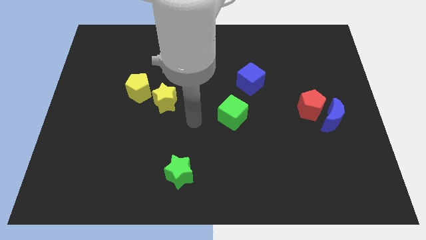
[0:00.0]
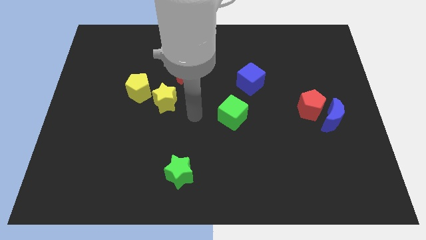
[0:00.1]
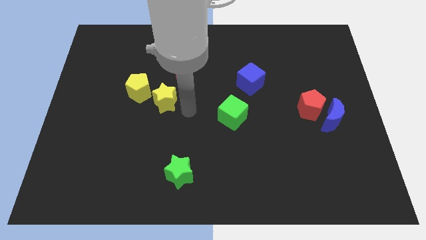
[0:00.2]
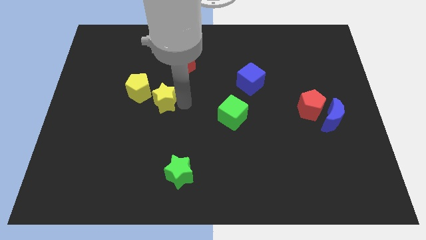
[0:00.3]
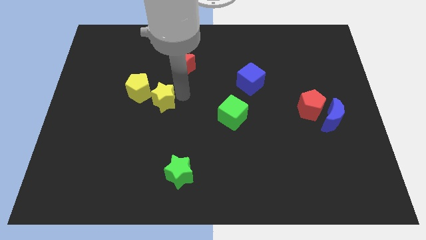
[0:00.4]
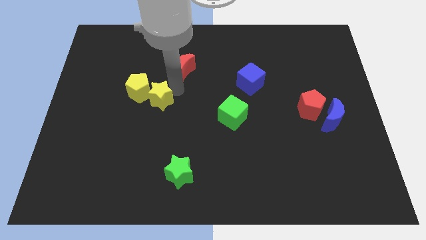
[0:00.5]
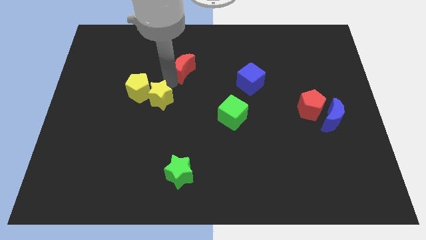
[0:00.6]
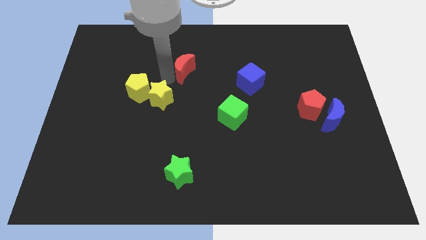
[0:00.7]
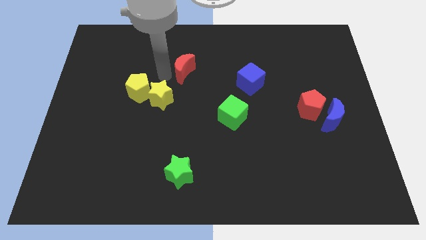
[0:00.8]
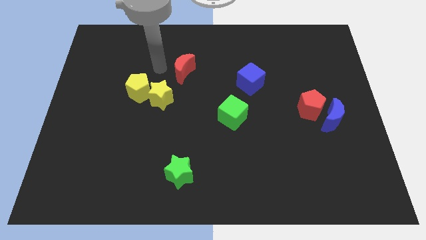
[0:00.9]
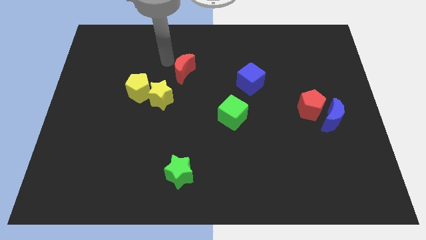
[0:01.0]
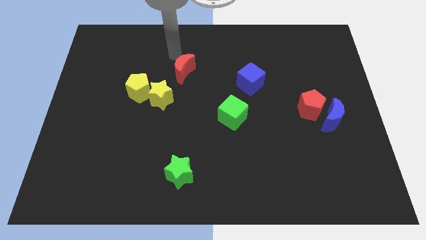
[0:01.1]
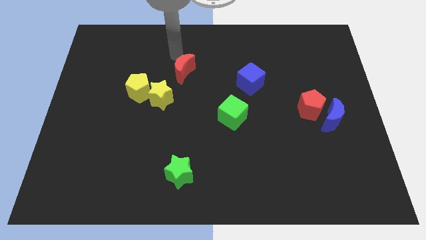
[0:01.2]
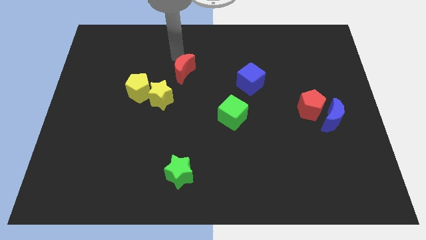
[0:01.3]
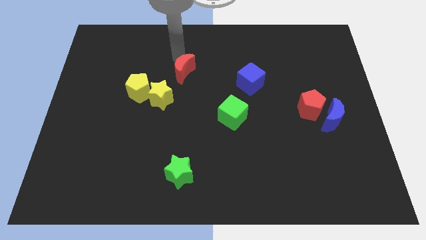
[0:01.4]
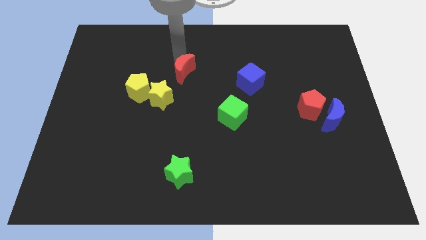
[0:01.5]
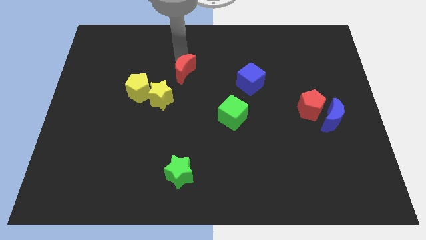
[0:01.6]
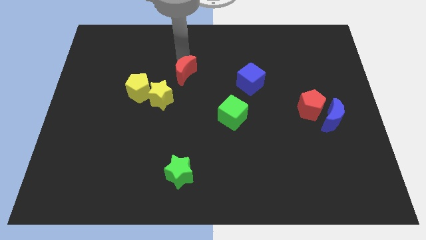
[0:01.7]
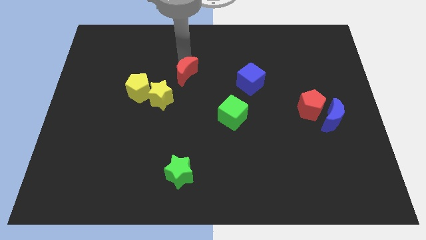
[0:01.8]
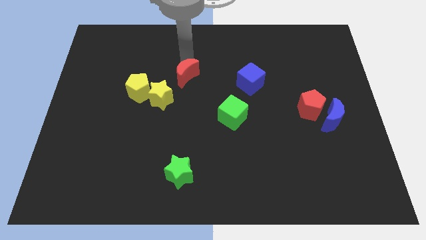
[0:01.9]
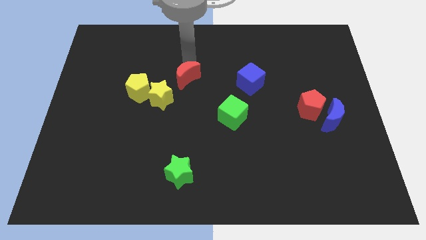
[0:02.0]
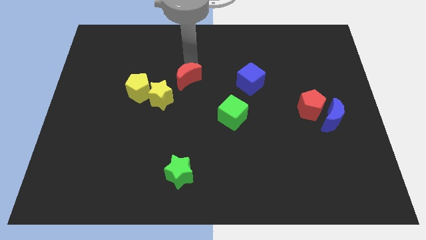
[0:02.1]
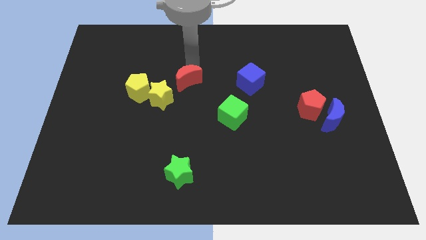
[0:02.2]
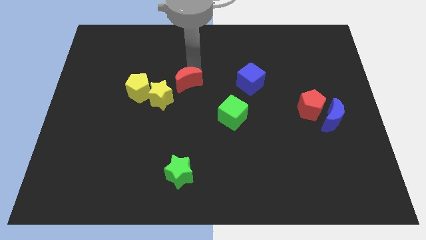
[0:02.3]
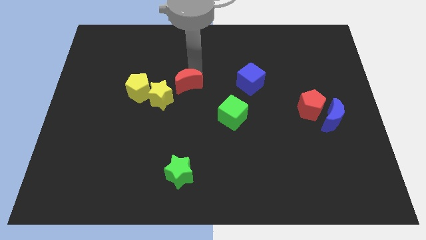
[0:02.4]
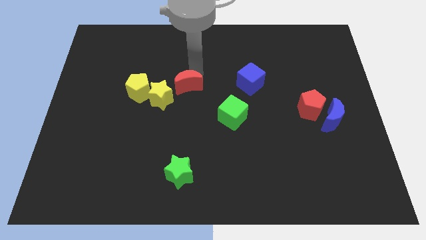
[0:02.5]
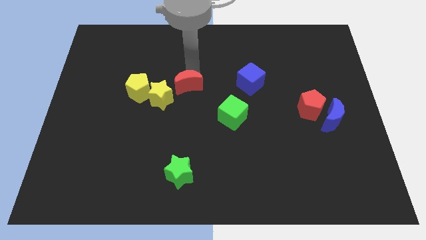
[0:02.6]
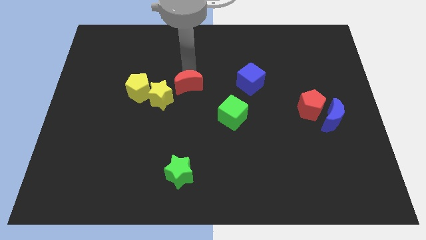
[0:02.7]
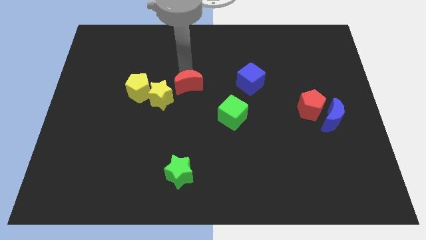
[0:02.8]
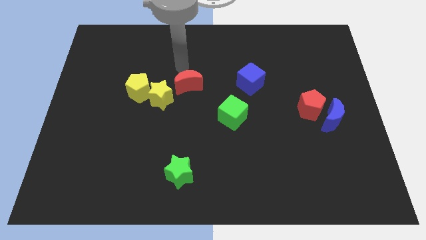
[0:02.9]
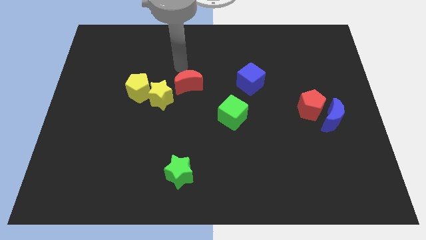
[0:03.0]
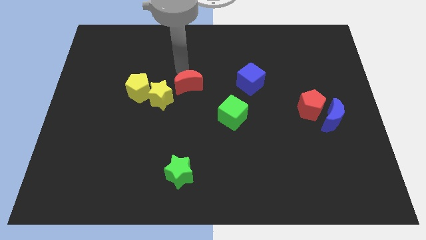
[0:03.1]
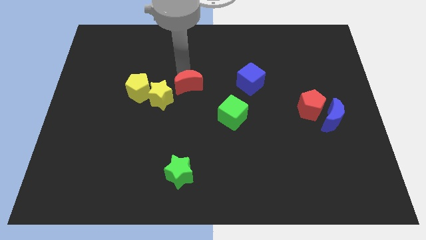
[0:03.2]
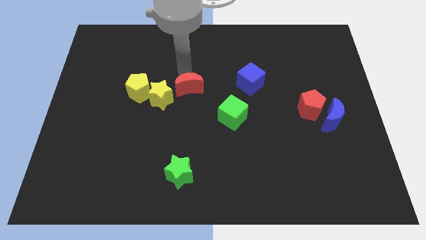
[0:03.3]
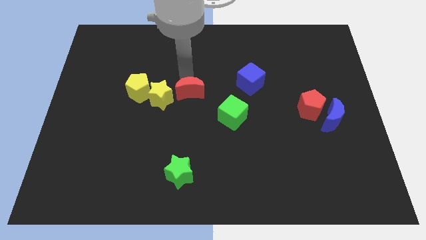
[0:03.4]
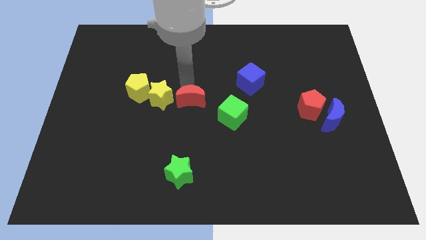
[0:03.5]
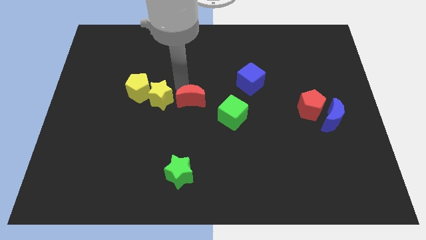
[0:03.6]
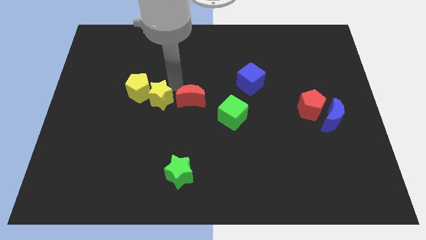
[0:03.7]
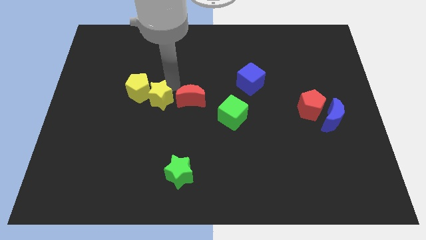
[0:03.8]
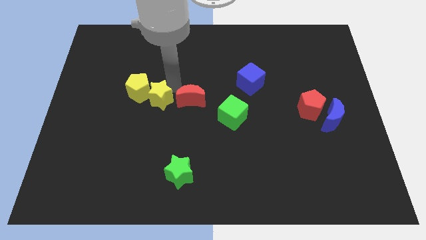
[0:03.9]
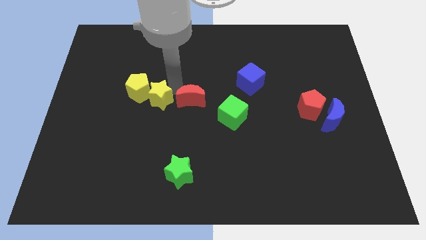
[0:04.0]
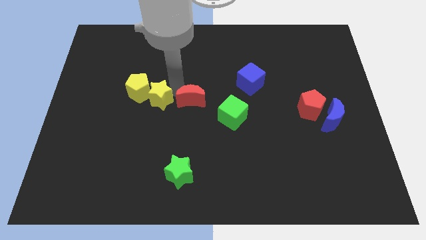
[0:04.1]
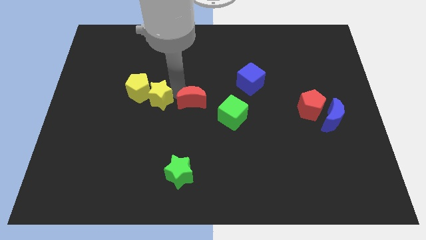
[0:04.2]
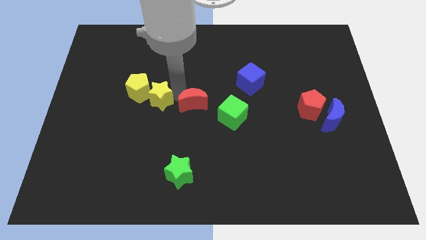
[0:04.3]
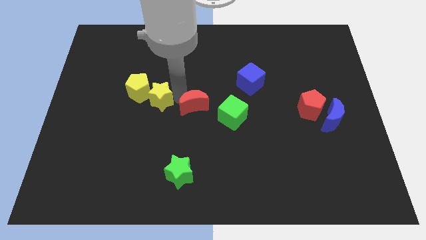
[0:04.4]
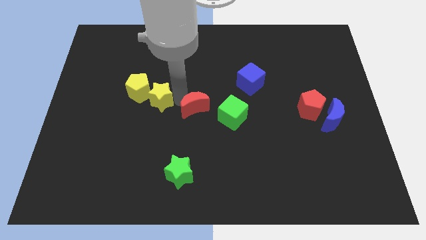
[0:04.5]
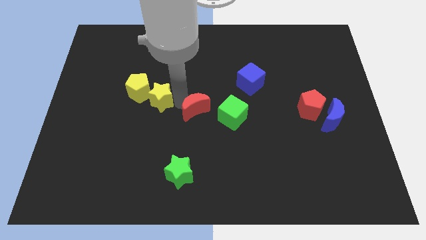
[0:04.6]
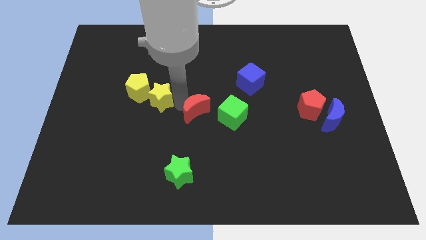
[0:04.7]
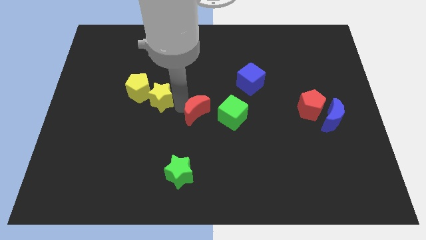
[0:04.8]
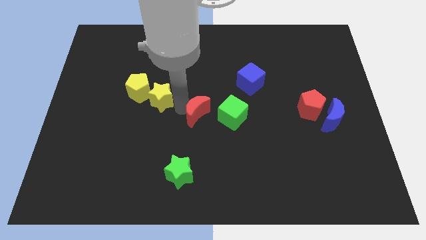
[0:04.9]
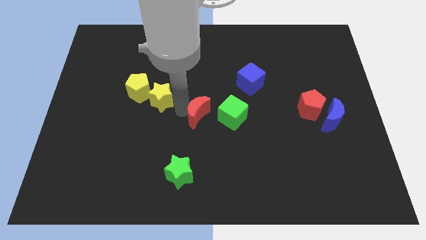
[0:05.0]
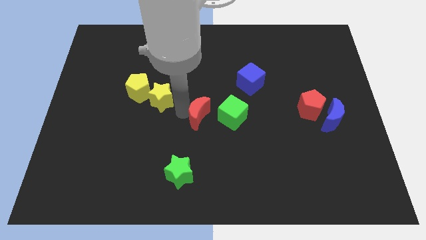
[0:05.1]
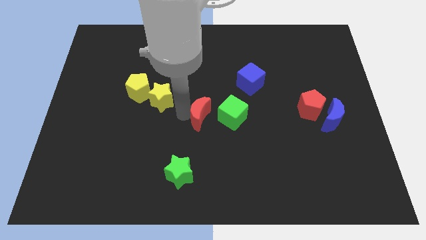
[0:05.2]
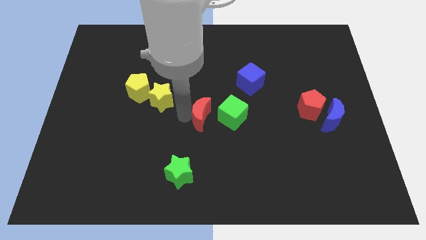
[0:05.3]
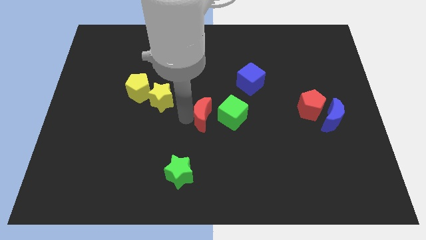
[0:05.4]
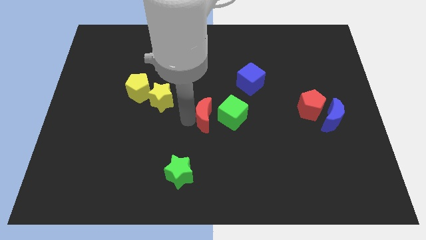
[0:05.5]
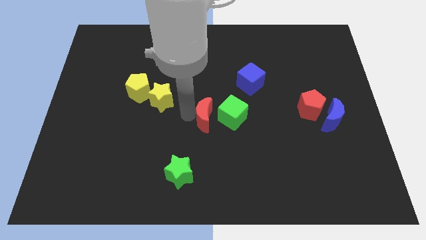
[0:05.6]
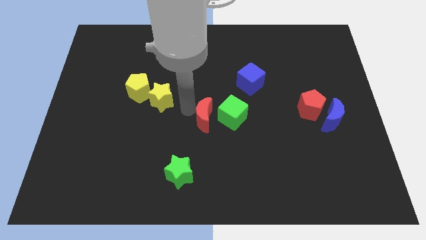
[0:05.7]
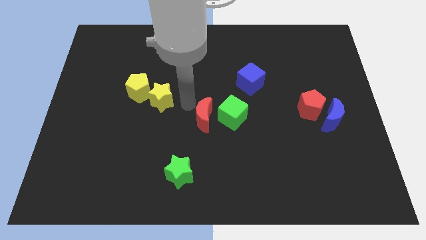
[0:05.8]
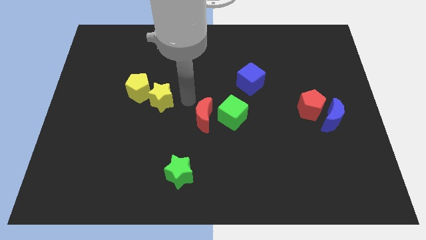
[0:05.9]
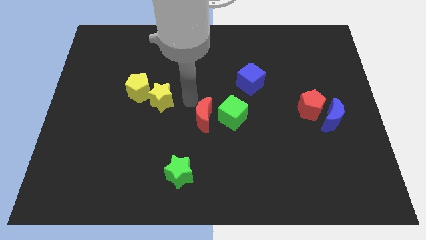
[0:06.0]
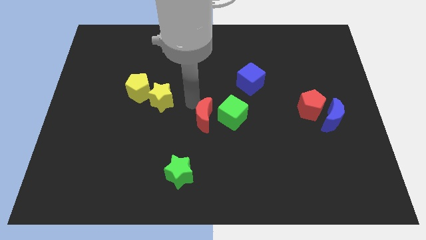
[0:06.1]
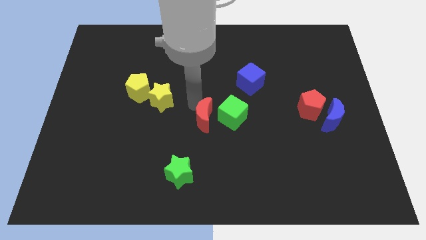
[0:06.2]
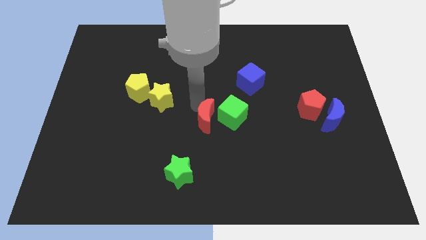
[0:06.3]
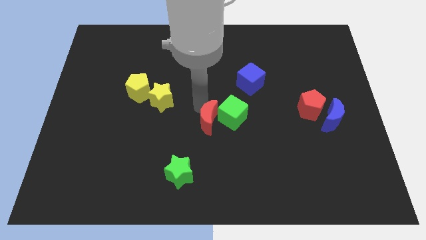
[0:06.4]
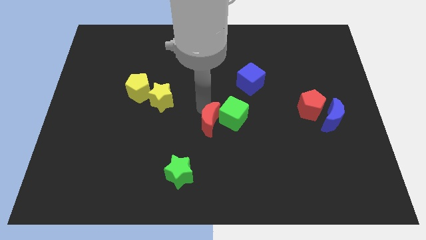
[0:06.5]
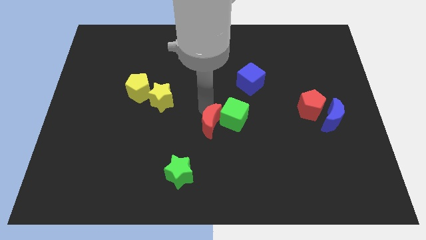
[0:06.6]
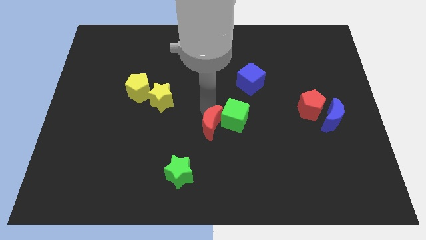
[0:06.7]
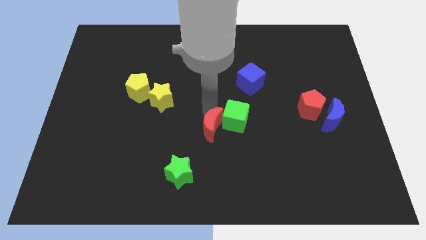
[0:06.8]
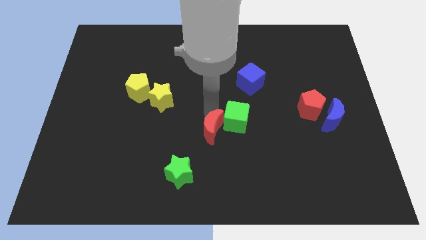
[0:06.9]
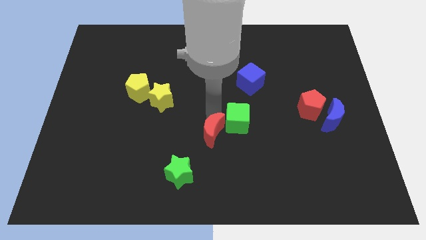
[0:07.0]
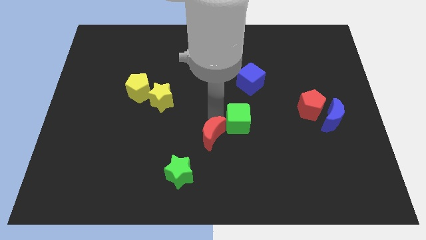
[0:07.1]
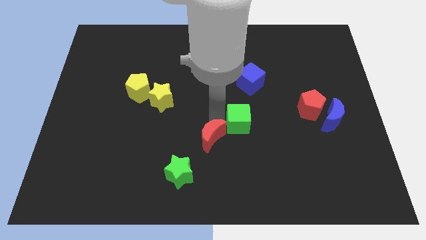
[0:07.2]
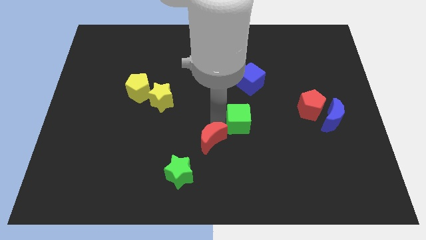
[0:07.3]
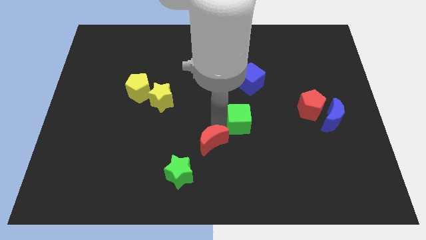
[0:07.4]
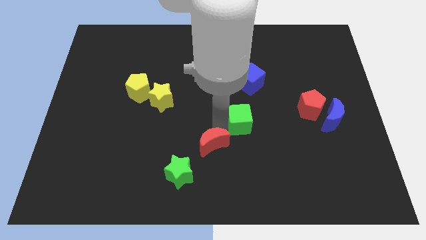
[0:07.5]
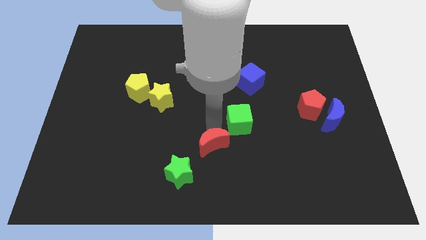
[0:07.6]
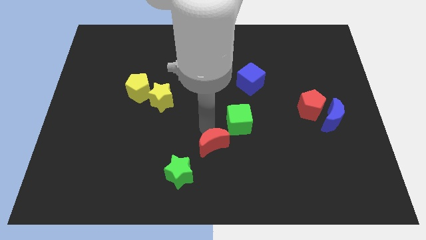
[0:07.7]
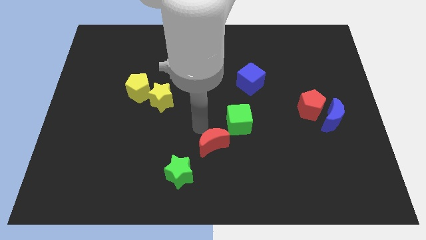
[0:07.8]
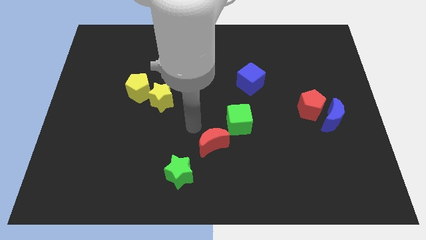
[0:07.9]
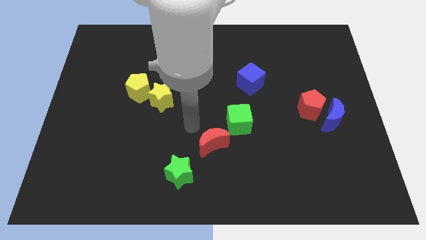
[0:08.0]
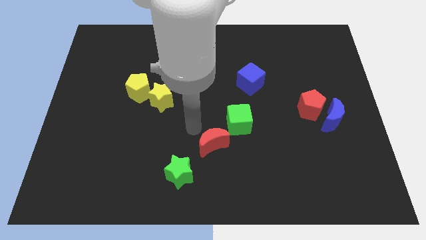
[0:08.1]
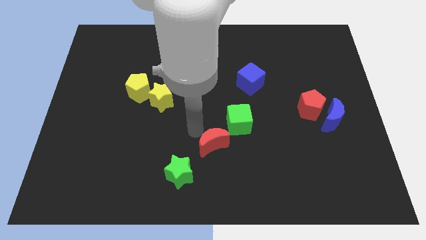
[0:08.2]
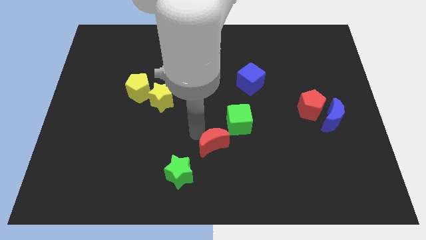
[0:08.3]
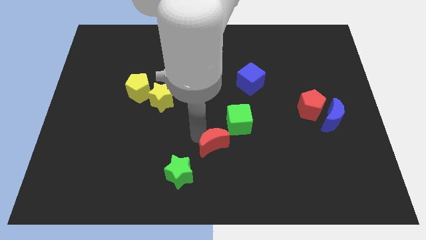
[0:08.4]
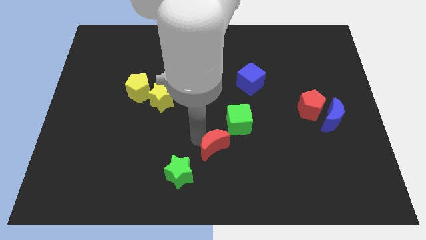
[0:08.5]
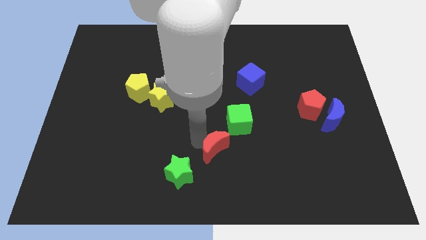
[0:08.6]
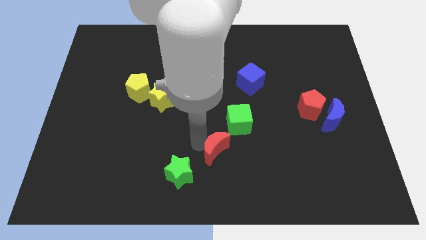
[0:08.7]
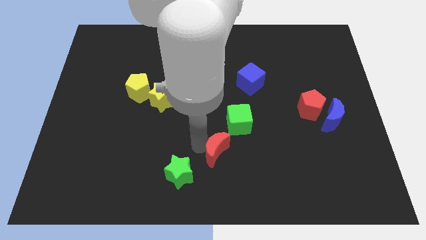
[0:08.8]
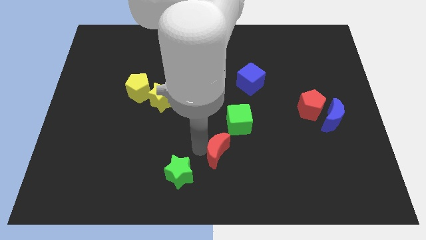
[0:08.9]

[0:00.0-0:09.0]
put the red moon just right of the green star
